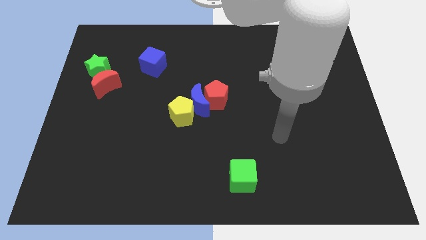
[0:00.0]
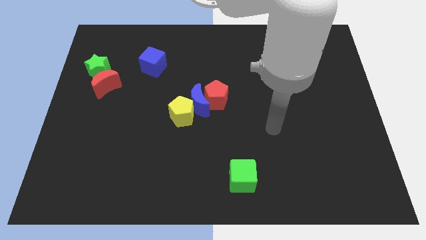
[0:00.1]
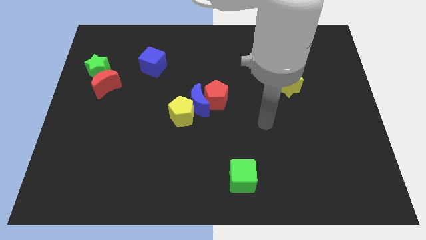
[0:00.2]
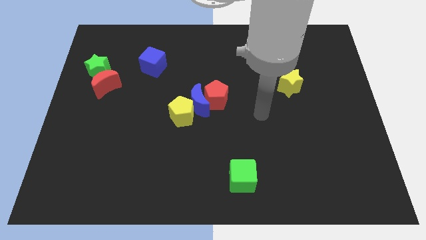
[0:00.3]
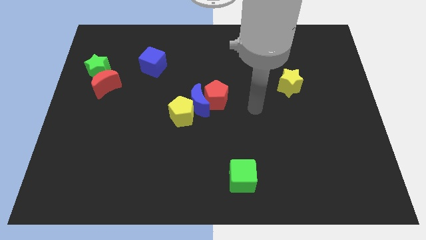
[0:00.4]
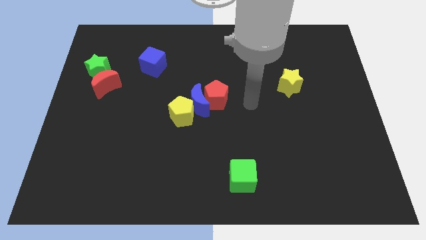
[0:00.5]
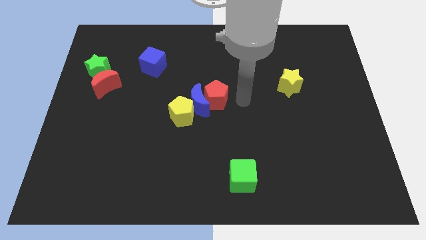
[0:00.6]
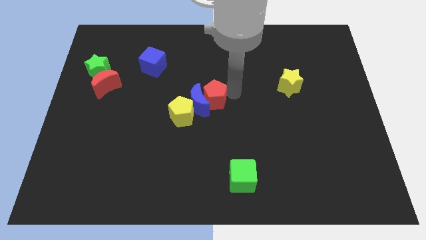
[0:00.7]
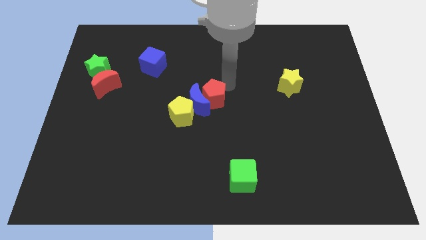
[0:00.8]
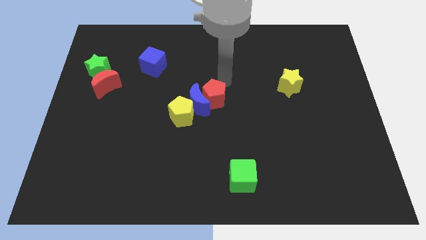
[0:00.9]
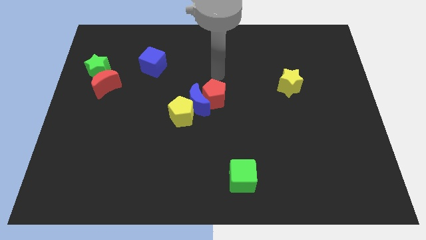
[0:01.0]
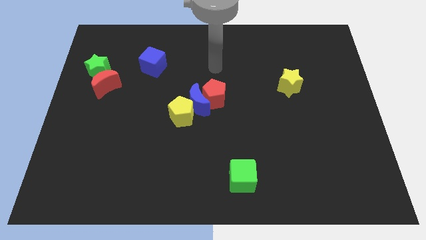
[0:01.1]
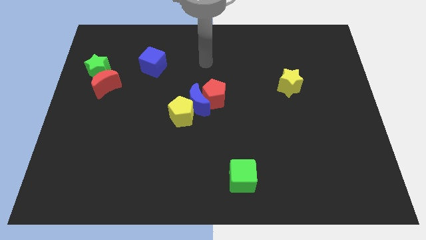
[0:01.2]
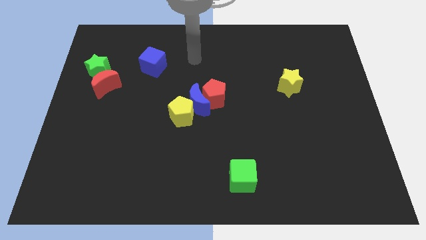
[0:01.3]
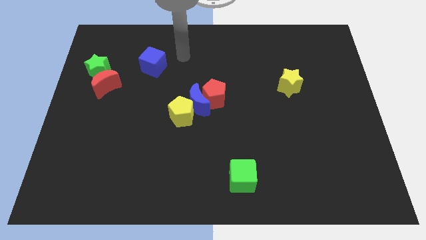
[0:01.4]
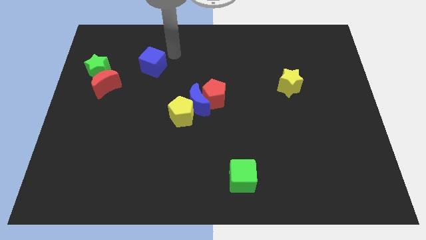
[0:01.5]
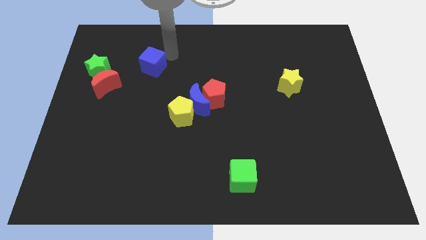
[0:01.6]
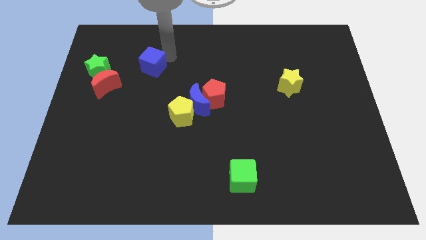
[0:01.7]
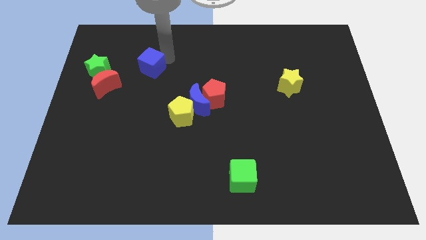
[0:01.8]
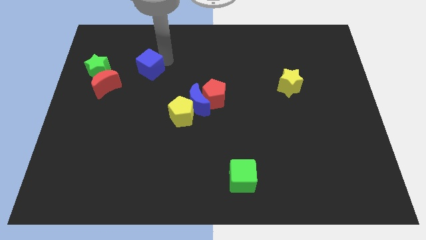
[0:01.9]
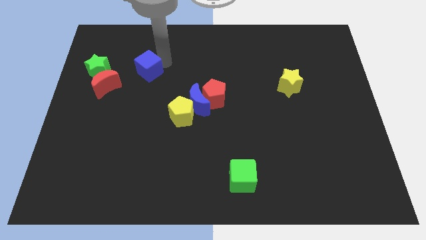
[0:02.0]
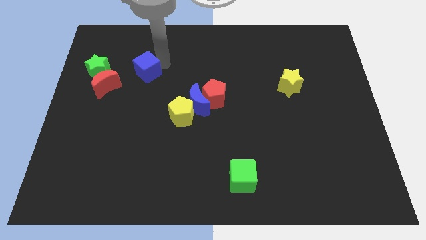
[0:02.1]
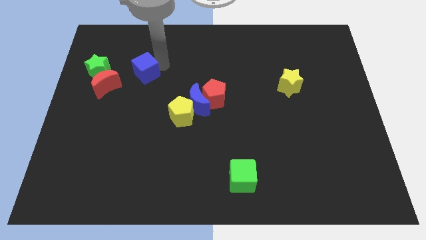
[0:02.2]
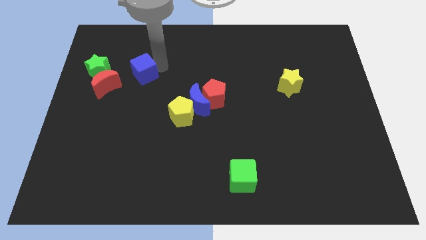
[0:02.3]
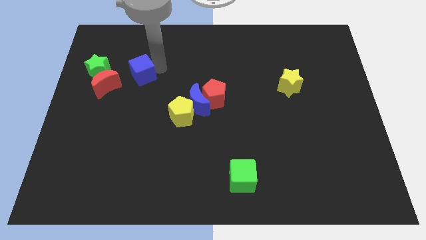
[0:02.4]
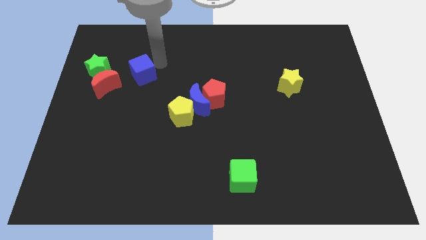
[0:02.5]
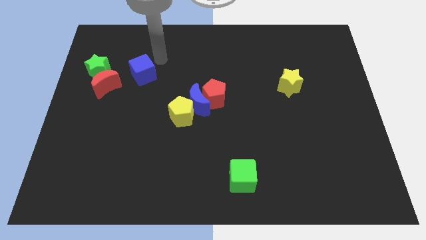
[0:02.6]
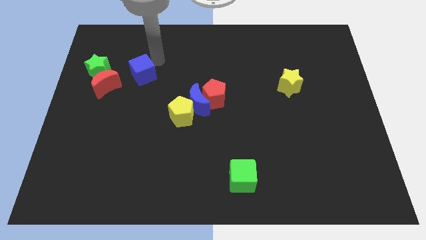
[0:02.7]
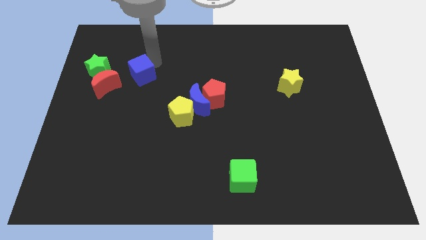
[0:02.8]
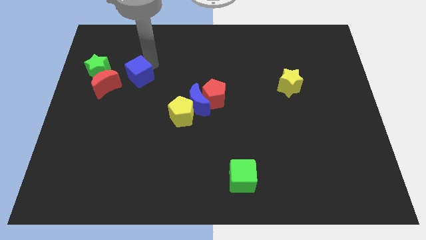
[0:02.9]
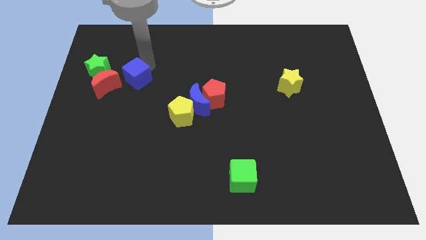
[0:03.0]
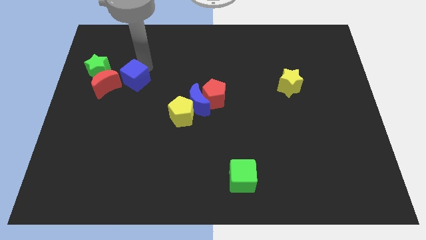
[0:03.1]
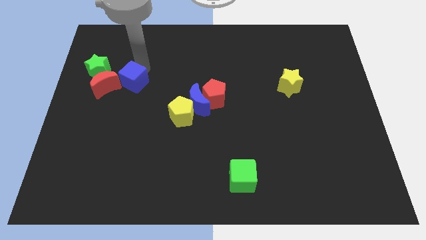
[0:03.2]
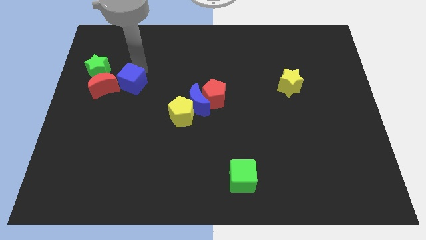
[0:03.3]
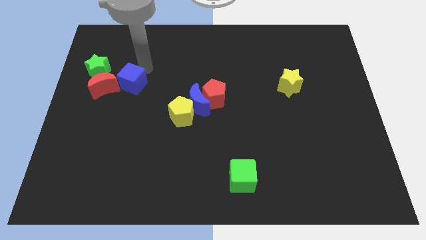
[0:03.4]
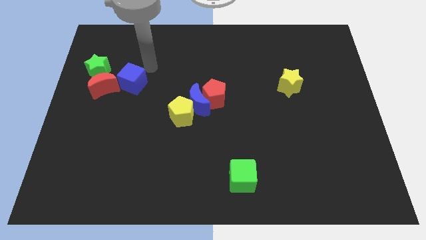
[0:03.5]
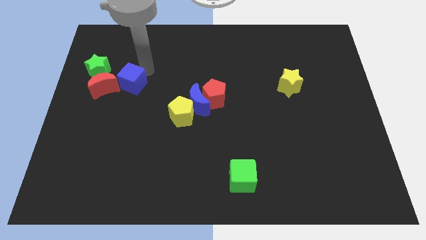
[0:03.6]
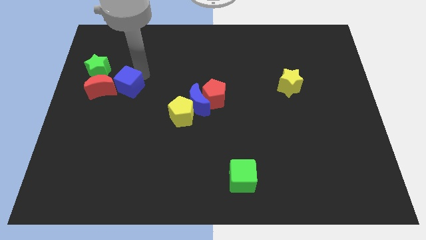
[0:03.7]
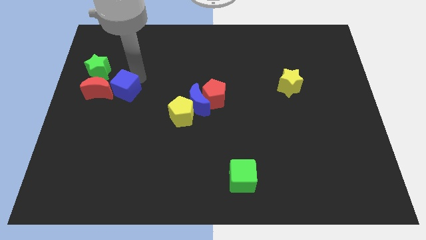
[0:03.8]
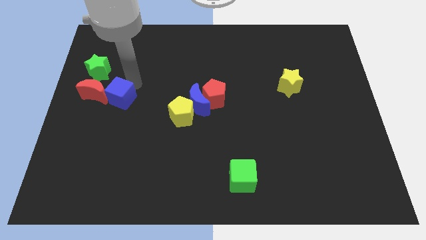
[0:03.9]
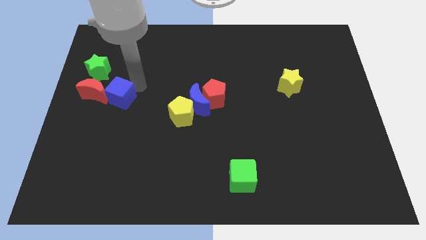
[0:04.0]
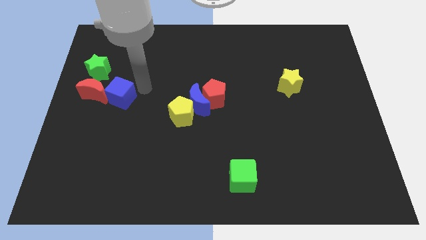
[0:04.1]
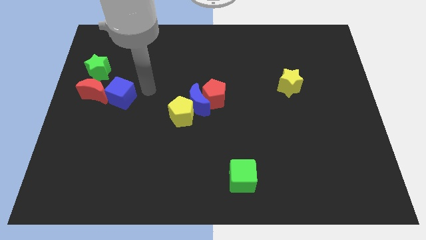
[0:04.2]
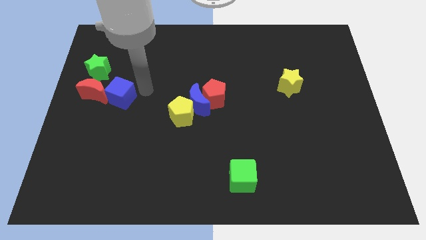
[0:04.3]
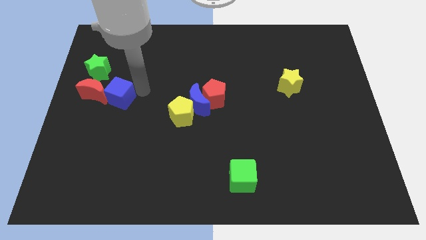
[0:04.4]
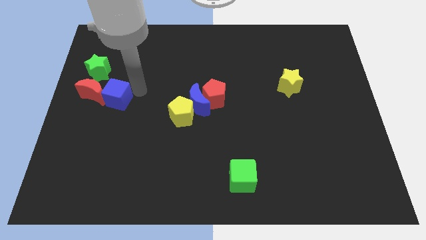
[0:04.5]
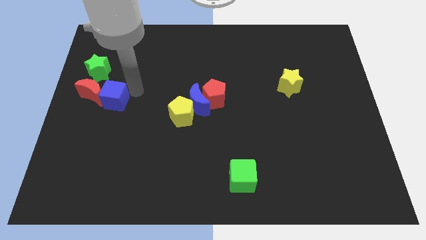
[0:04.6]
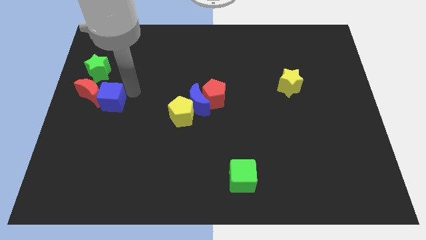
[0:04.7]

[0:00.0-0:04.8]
slide the blue cube to the bottom of the green star

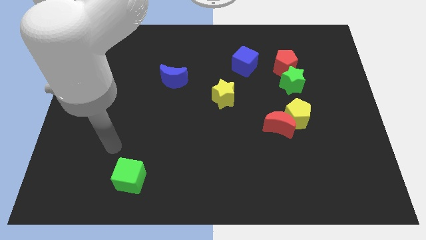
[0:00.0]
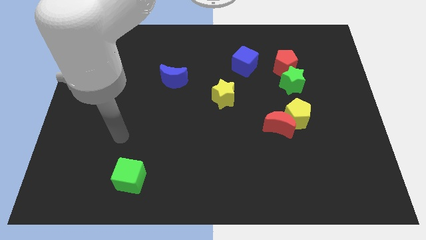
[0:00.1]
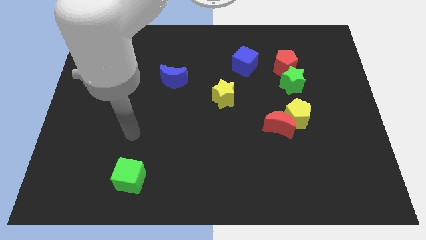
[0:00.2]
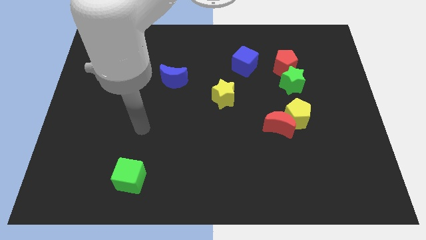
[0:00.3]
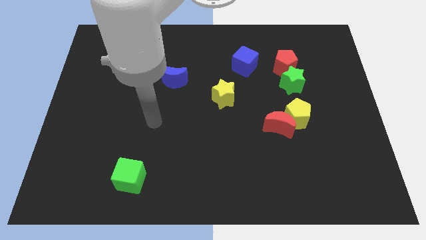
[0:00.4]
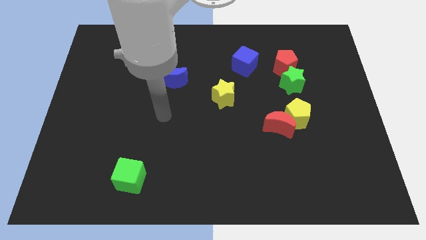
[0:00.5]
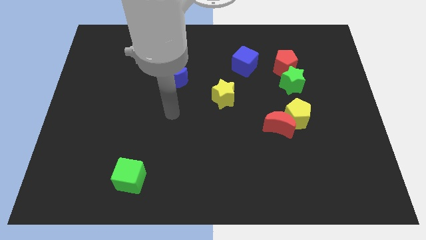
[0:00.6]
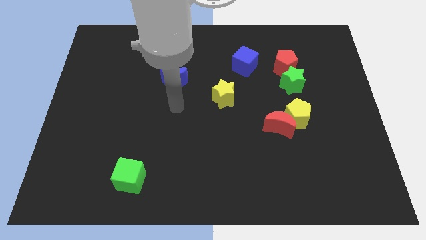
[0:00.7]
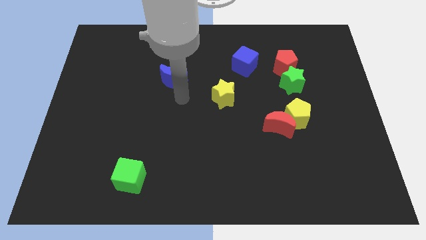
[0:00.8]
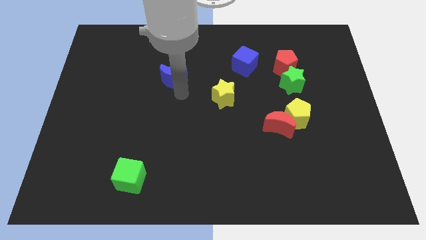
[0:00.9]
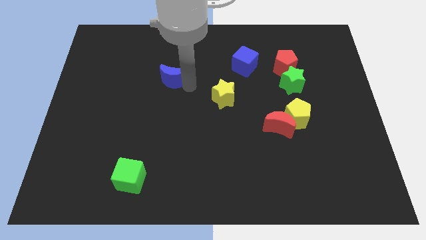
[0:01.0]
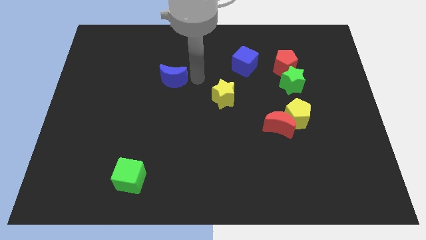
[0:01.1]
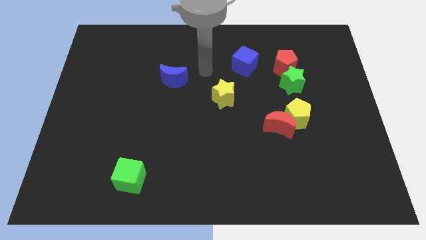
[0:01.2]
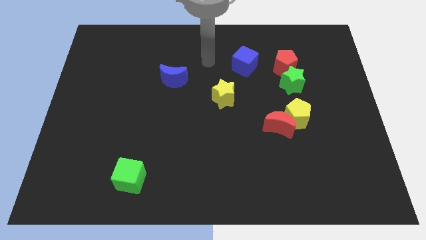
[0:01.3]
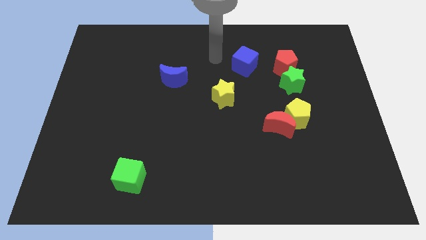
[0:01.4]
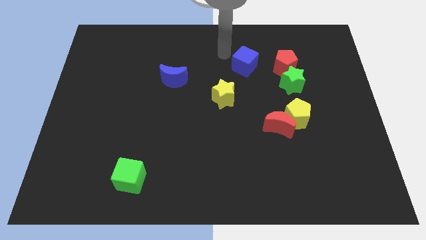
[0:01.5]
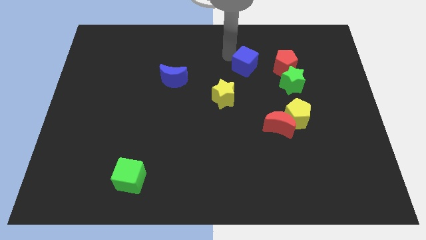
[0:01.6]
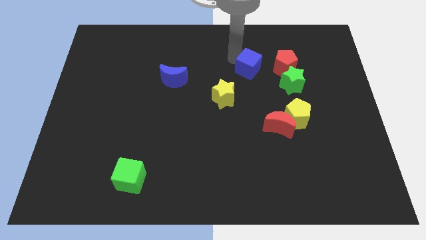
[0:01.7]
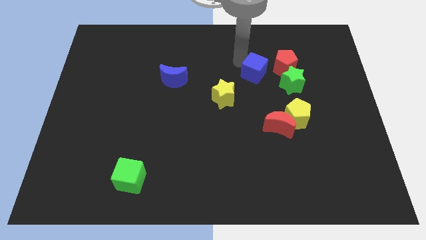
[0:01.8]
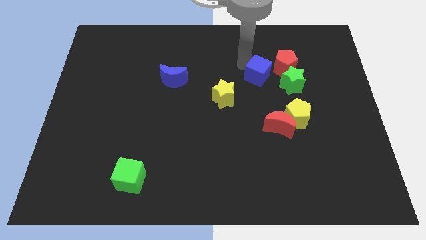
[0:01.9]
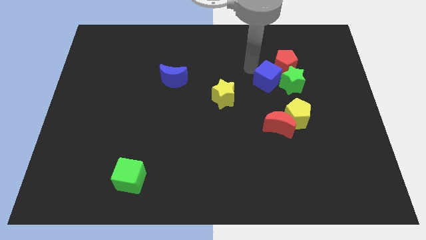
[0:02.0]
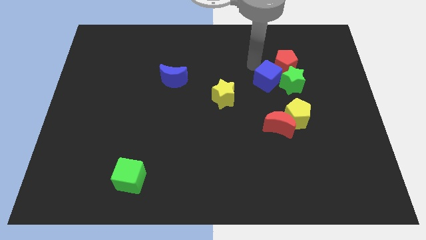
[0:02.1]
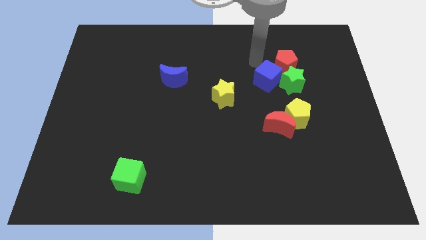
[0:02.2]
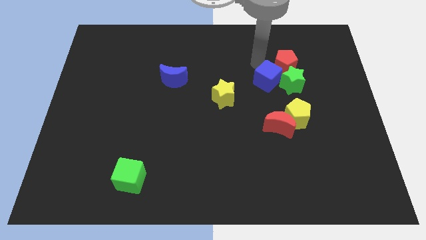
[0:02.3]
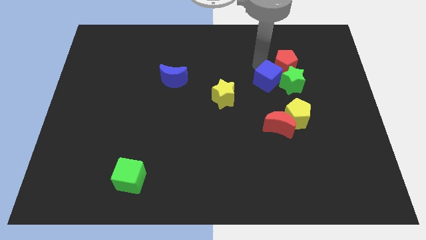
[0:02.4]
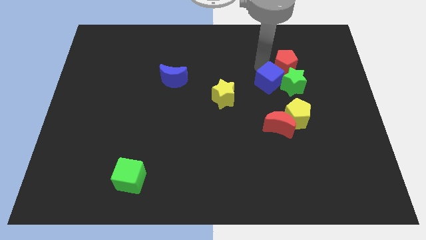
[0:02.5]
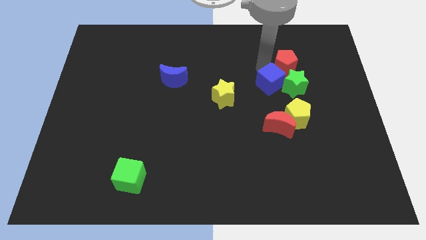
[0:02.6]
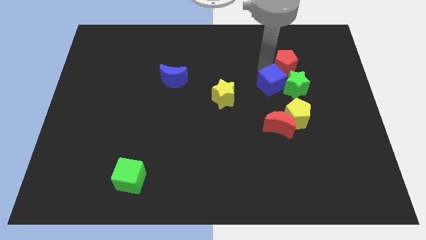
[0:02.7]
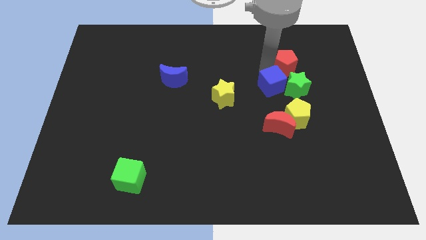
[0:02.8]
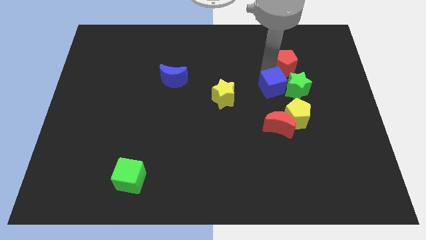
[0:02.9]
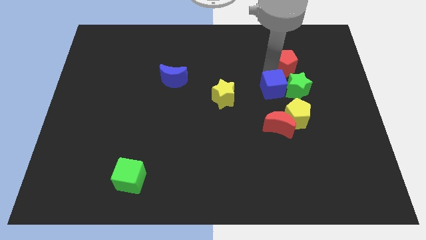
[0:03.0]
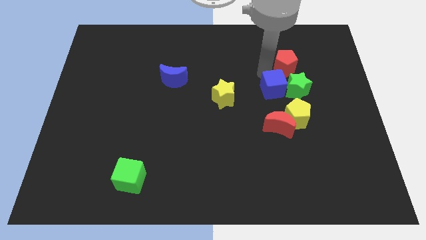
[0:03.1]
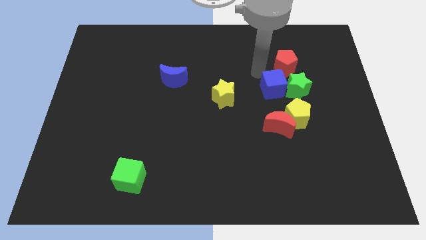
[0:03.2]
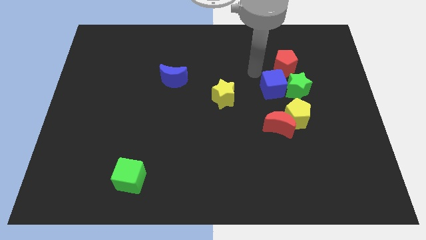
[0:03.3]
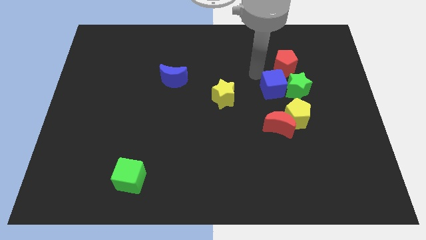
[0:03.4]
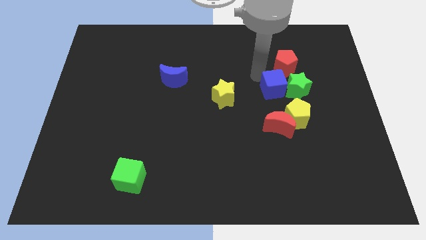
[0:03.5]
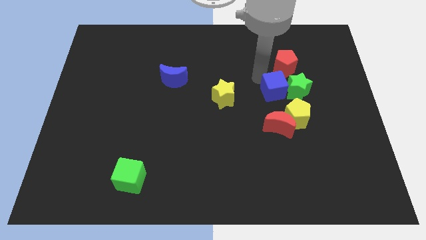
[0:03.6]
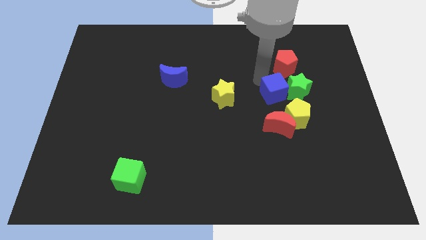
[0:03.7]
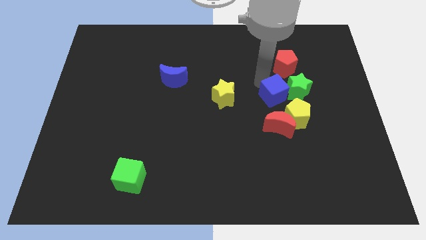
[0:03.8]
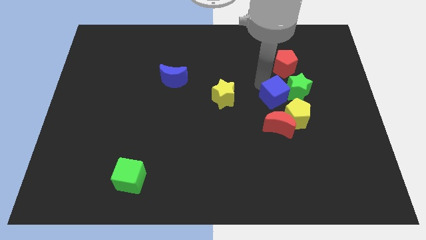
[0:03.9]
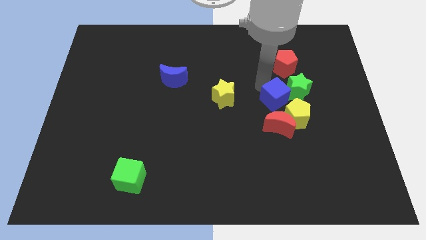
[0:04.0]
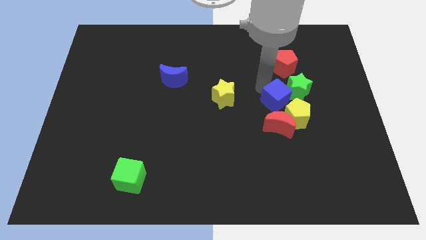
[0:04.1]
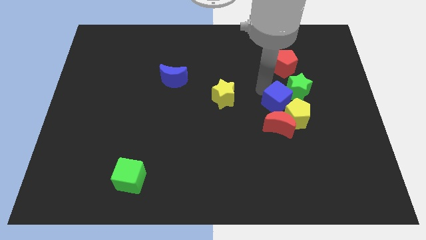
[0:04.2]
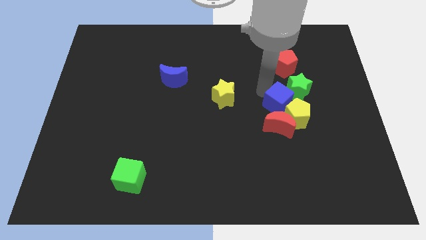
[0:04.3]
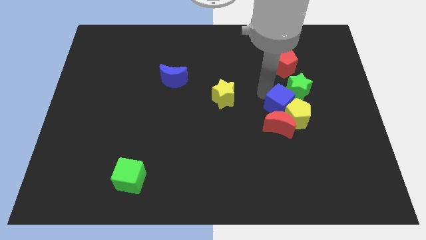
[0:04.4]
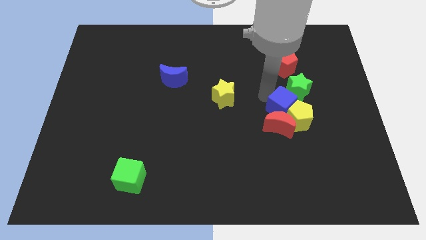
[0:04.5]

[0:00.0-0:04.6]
push the blue cube below the green star
